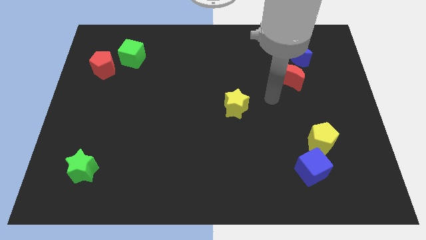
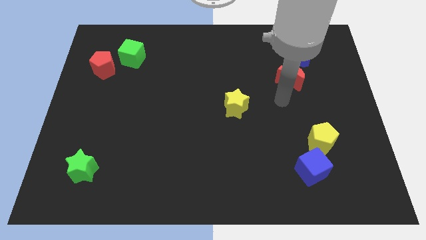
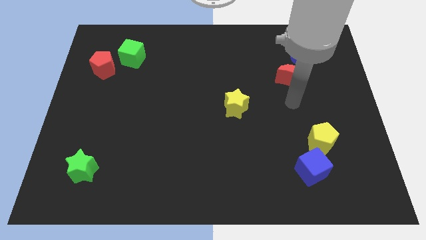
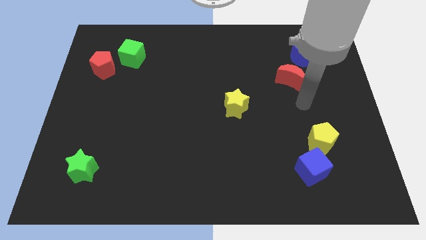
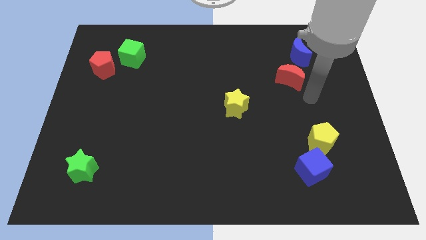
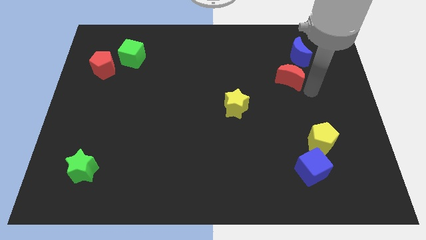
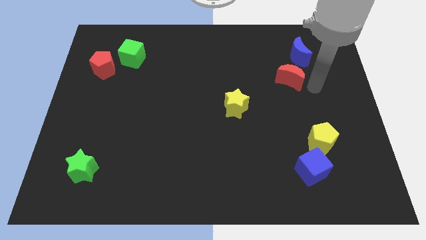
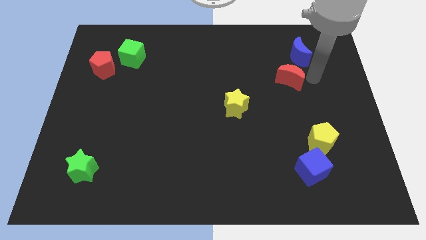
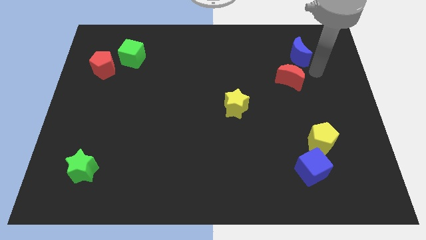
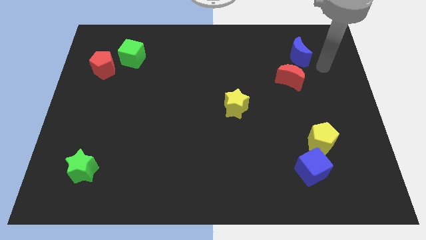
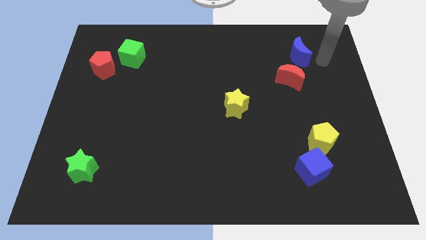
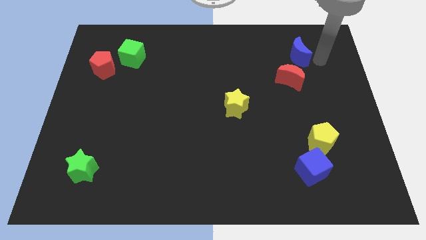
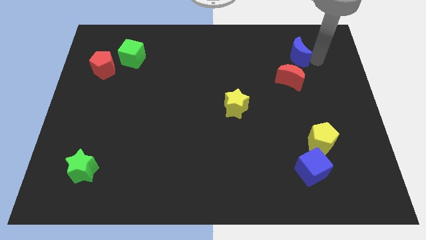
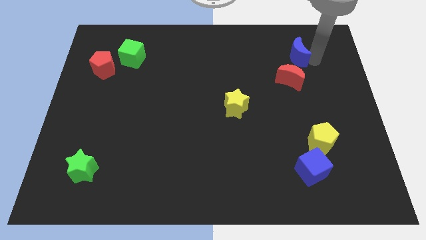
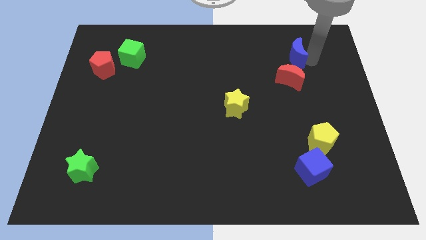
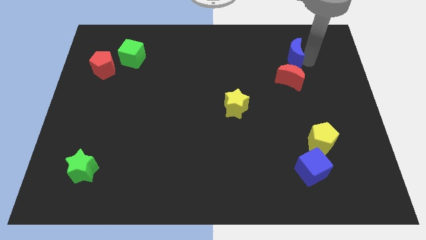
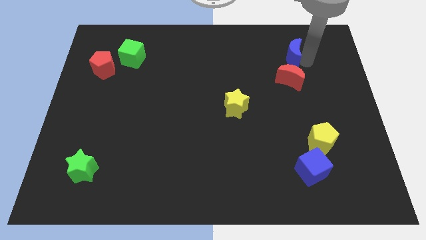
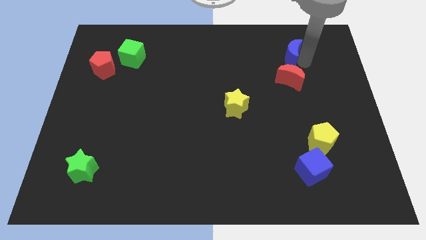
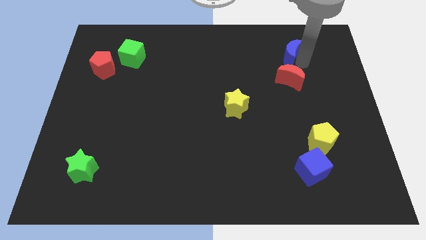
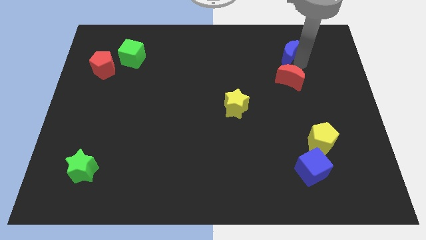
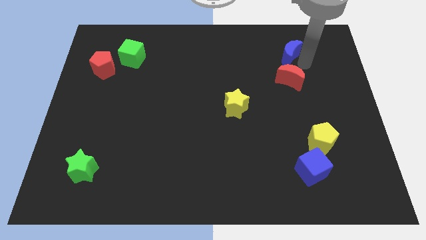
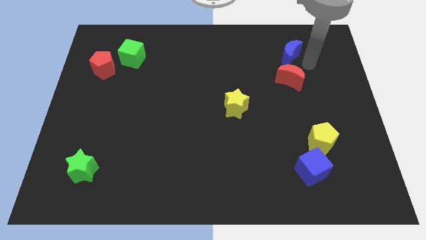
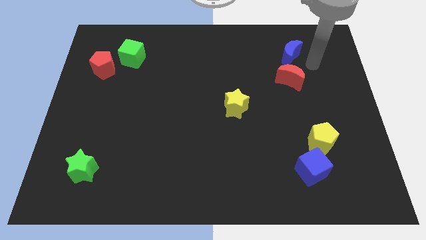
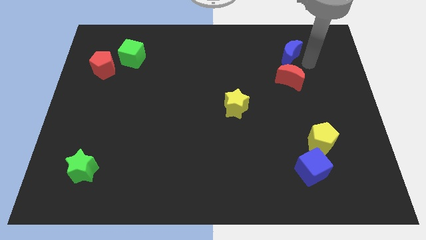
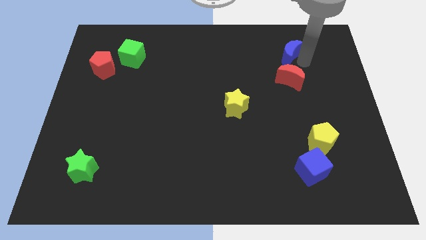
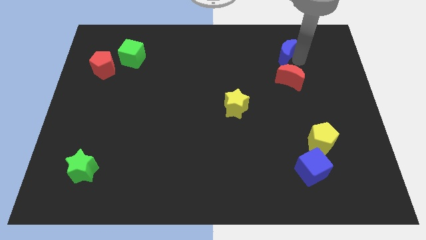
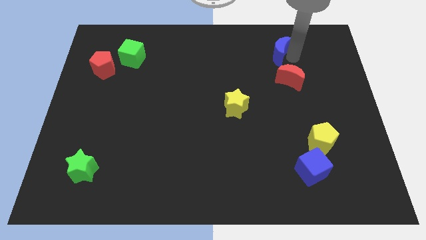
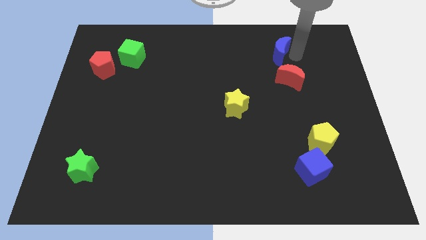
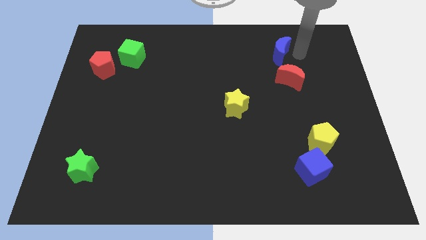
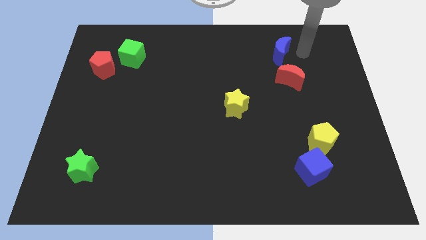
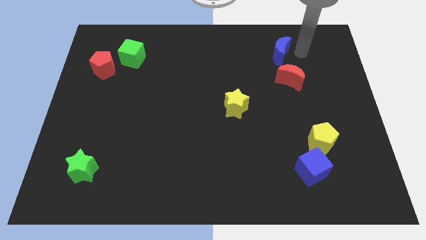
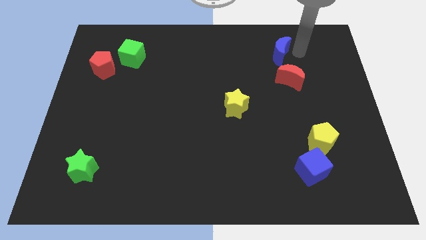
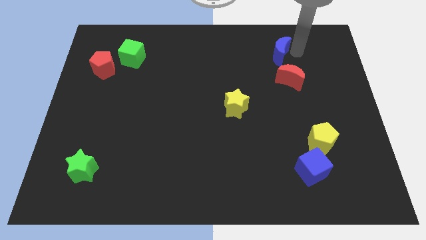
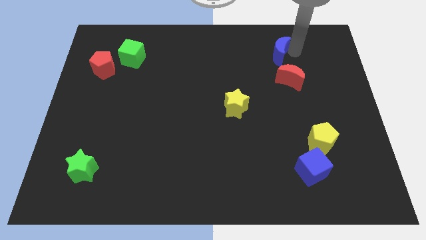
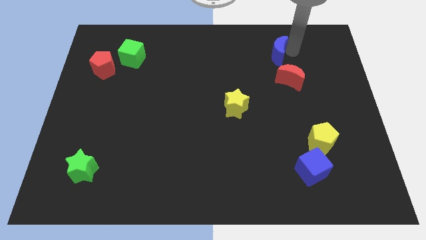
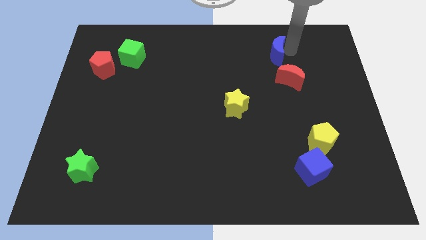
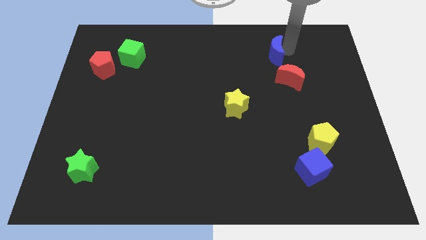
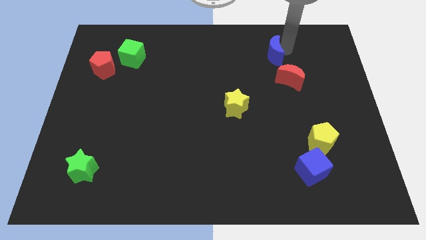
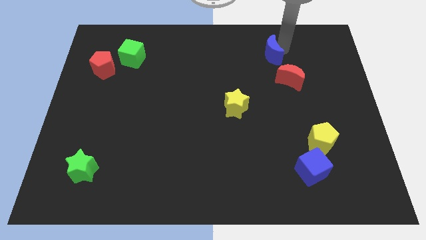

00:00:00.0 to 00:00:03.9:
slide the blue moon to the left slightly

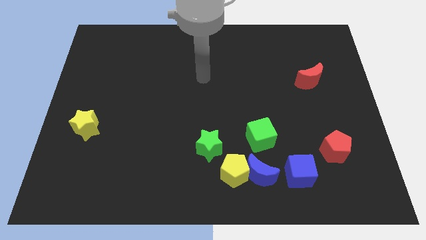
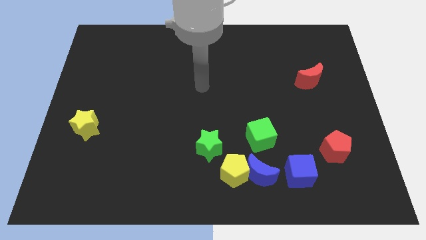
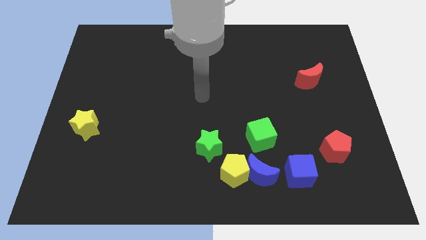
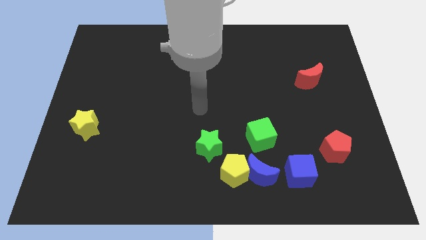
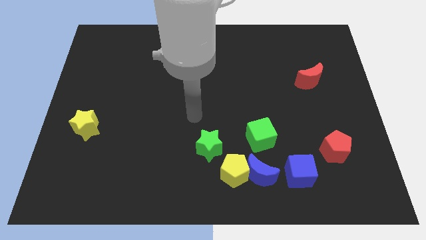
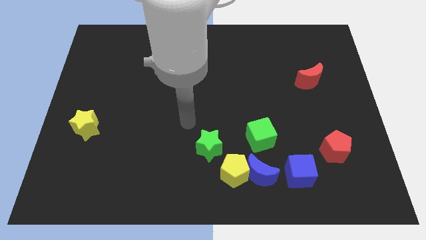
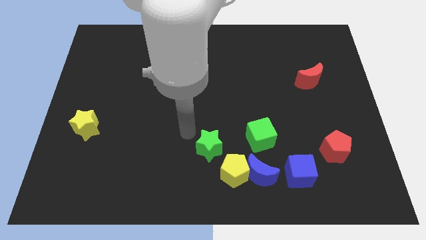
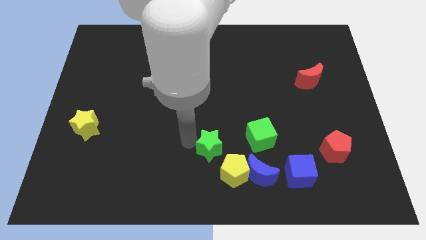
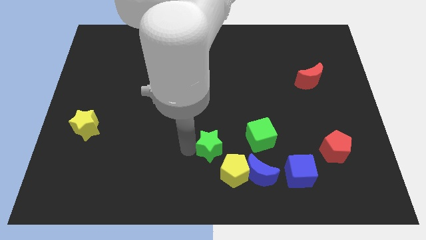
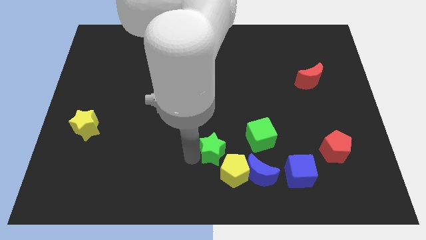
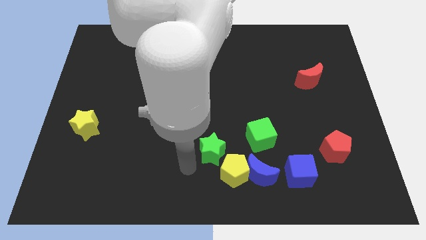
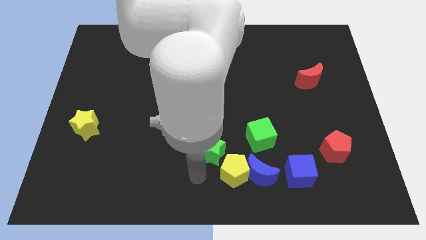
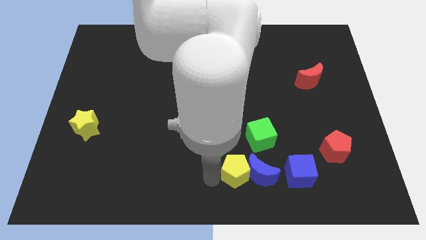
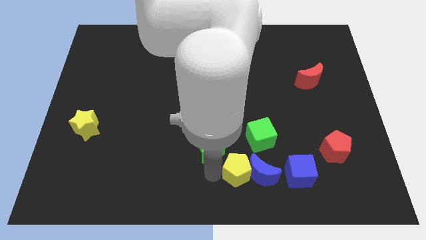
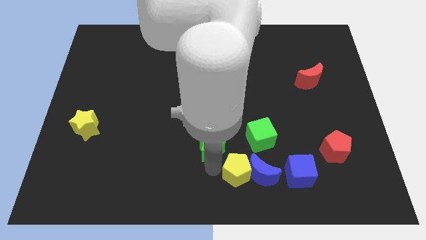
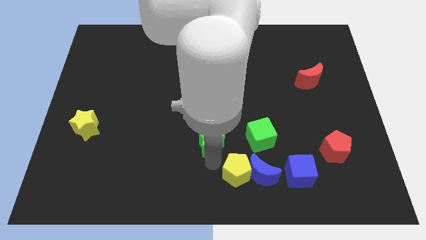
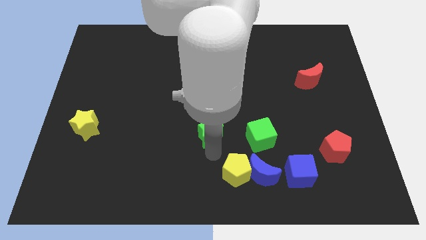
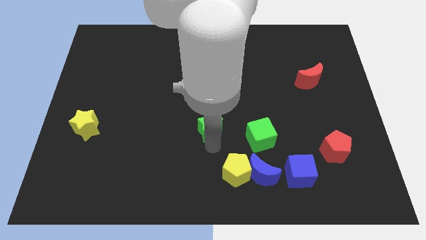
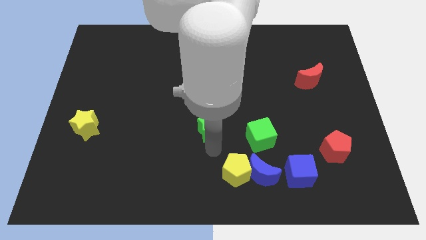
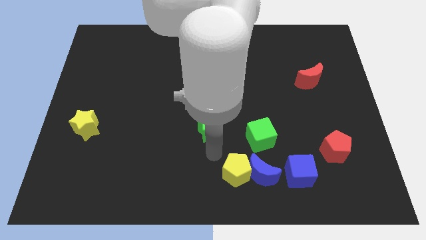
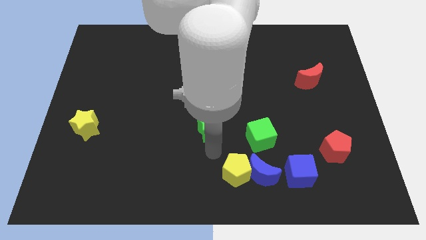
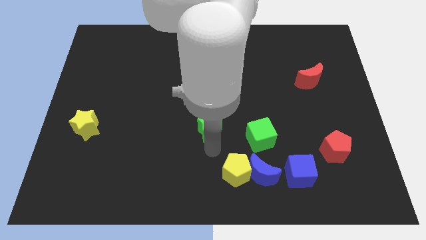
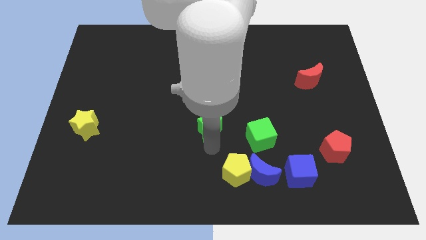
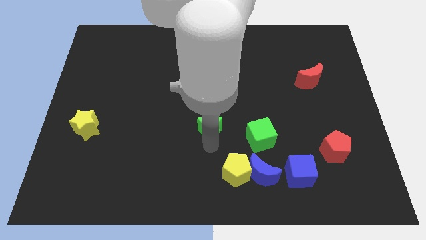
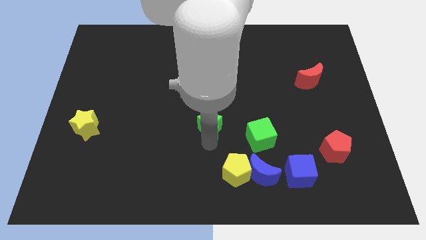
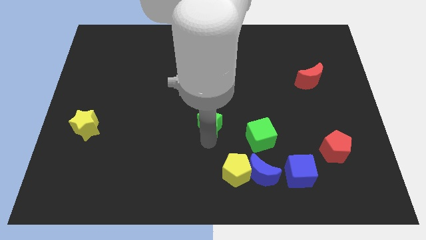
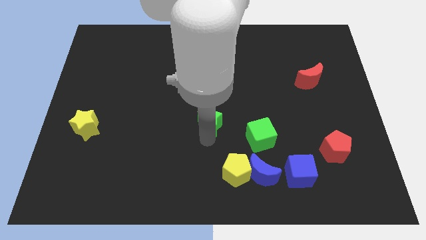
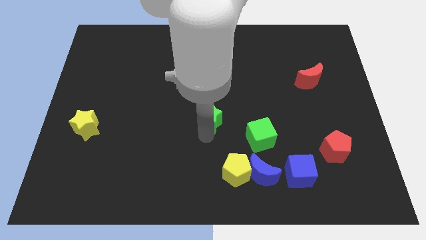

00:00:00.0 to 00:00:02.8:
slide the green star a little up

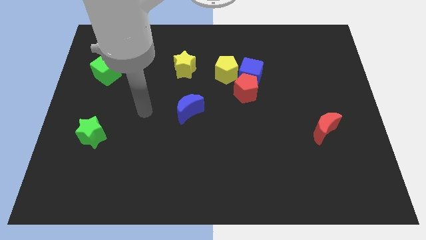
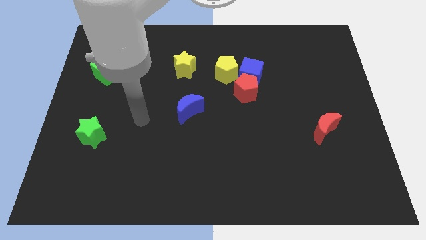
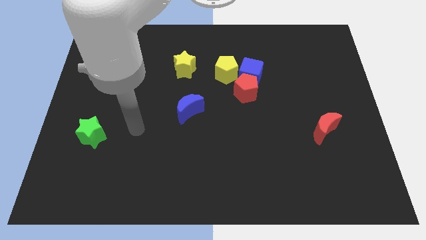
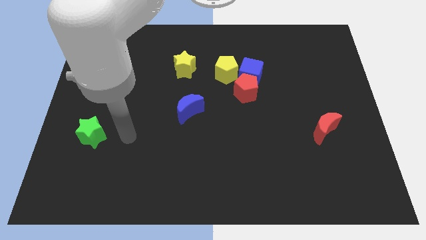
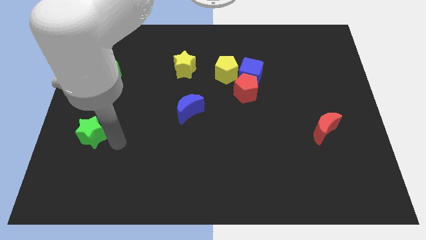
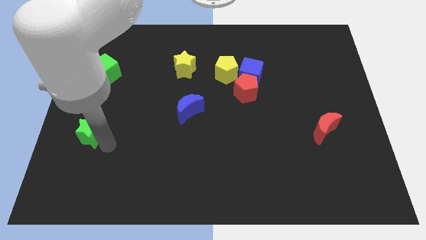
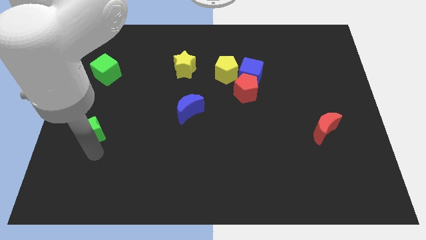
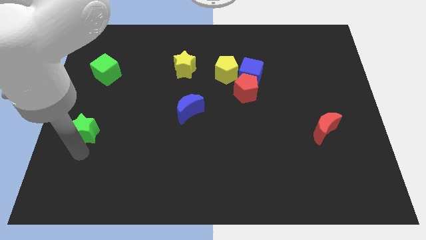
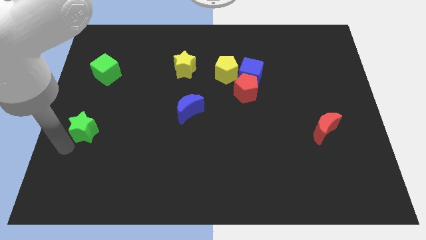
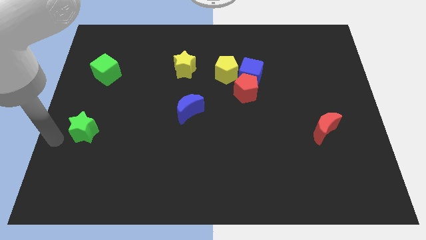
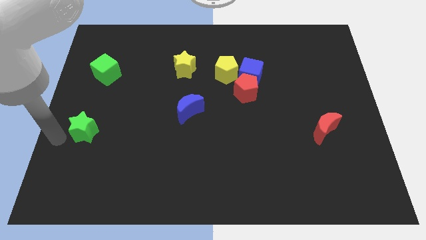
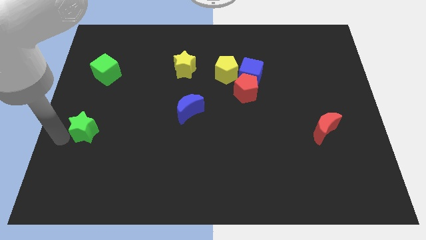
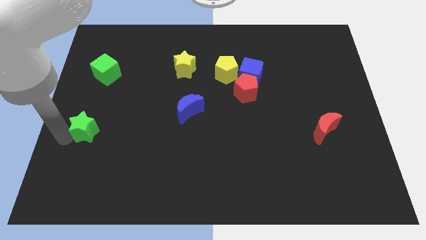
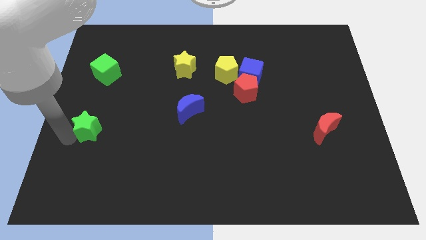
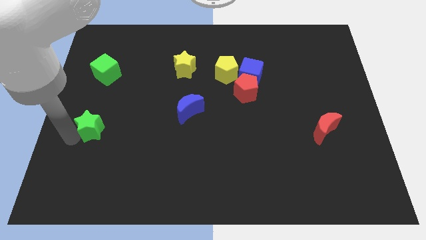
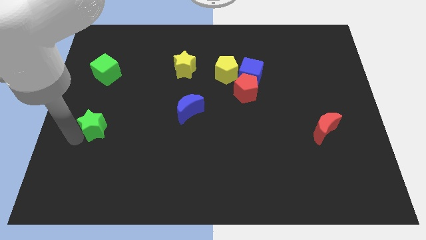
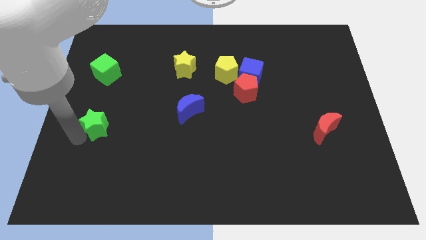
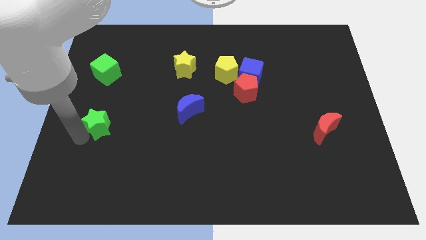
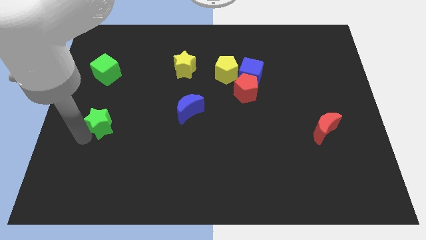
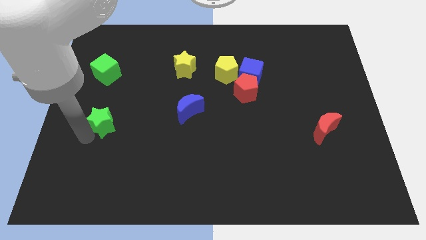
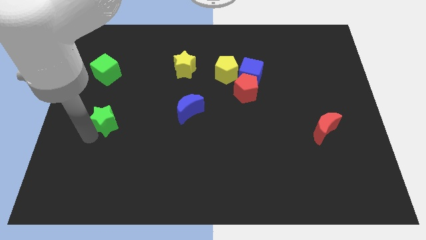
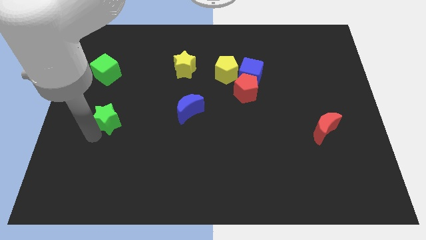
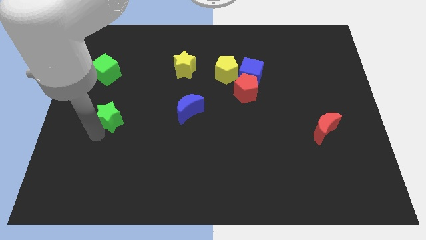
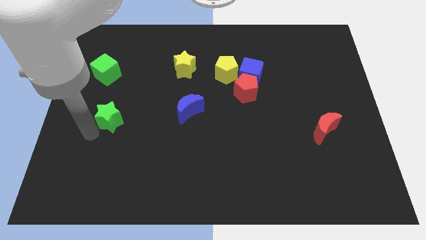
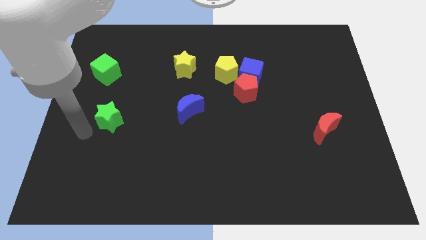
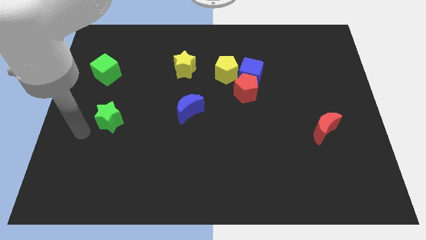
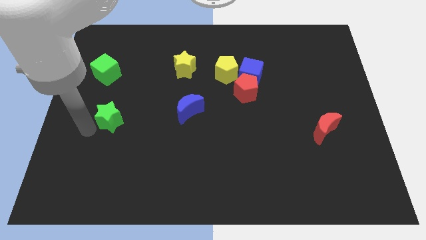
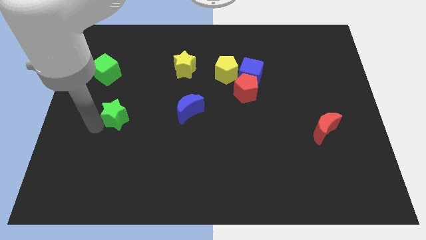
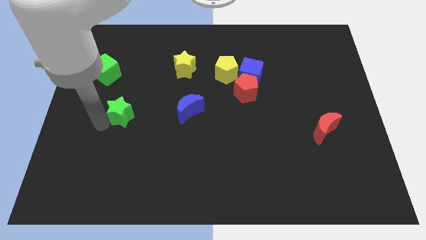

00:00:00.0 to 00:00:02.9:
slightly push the green star up and to the right diagonally
